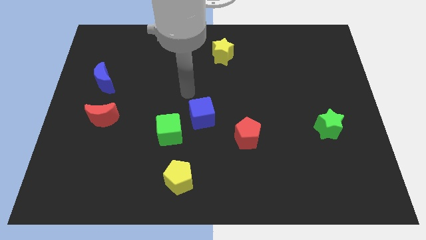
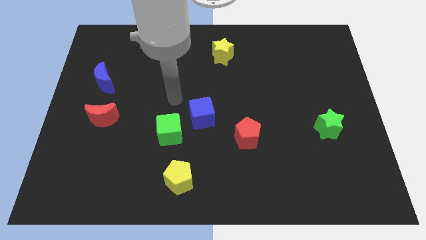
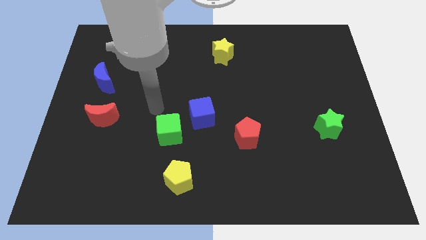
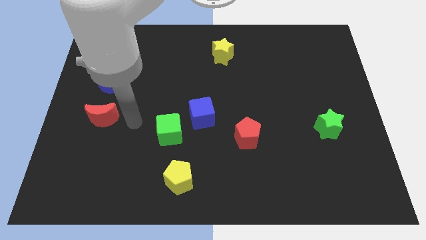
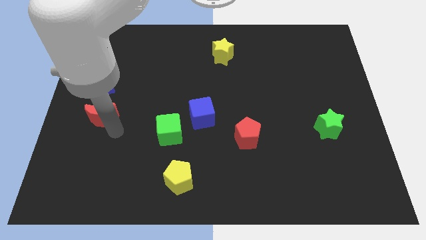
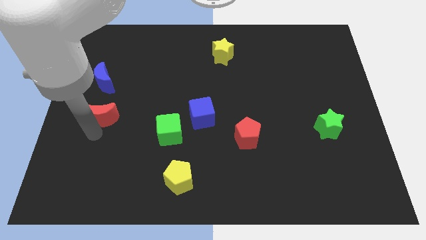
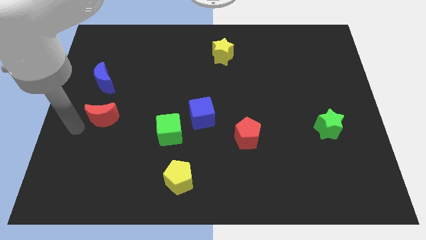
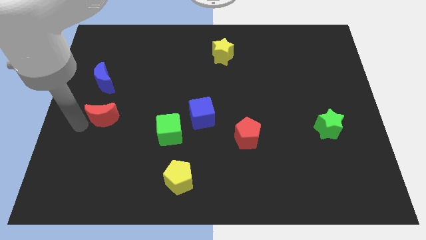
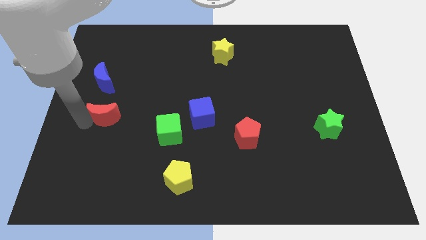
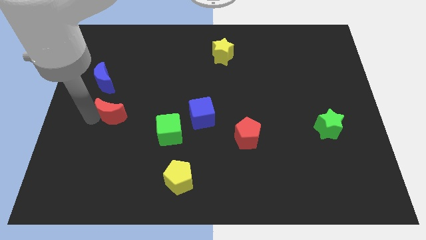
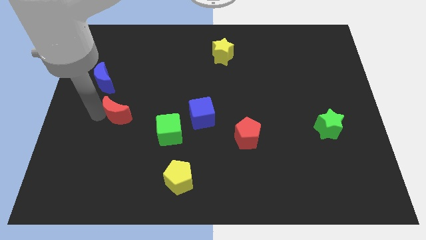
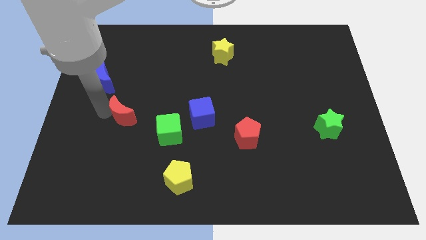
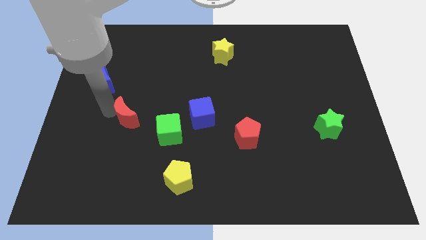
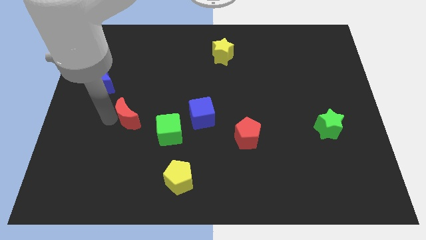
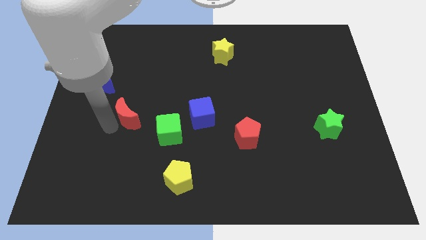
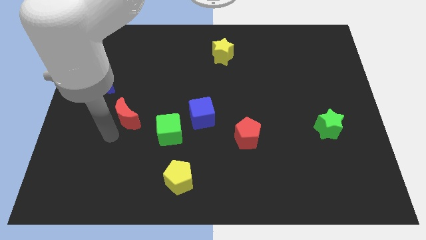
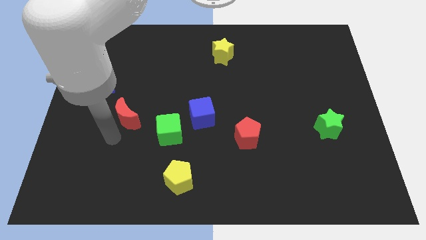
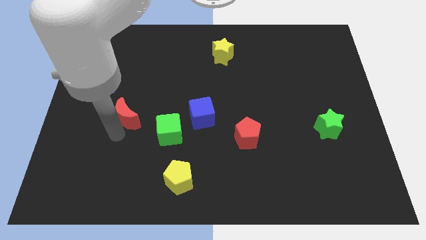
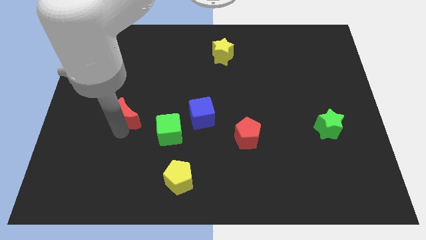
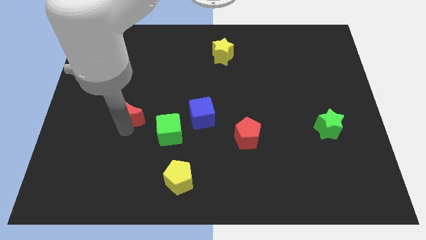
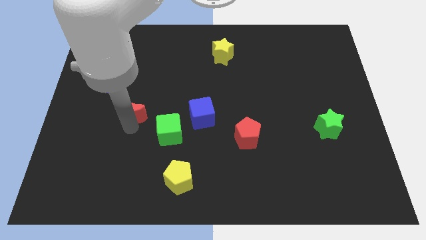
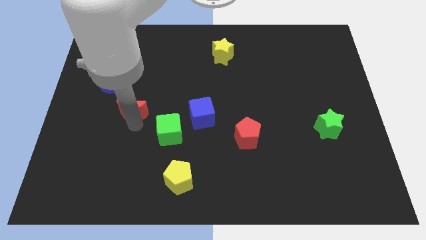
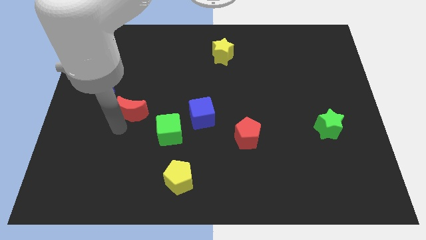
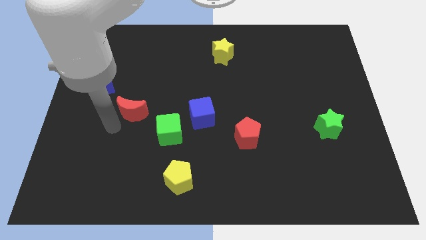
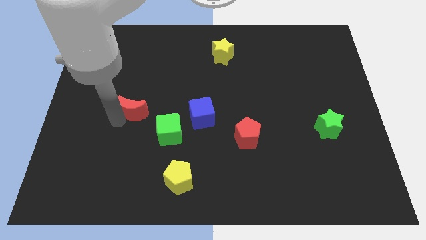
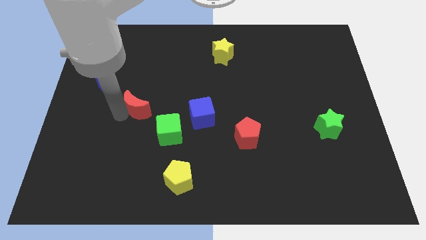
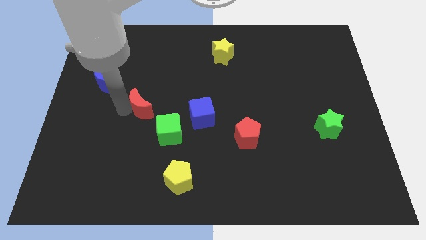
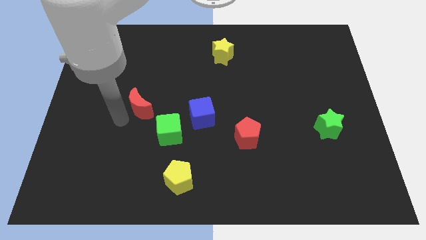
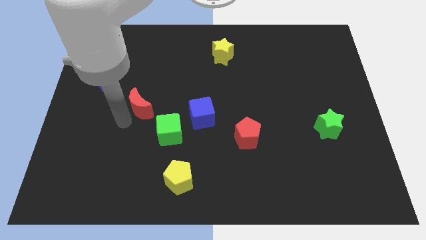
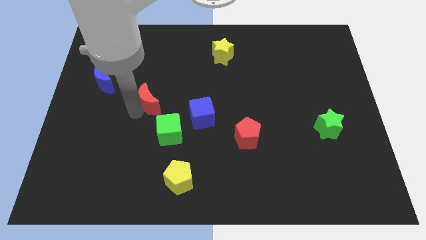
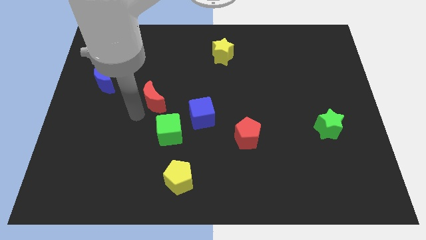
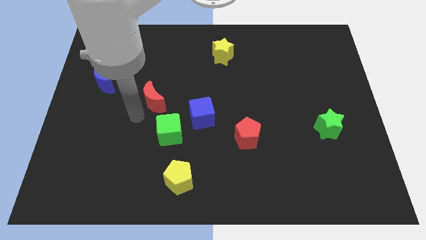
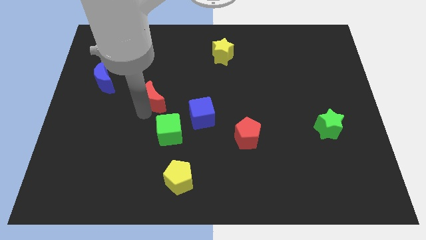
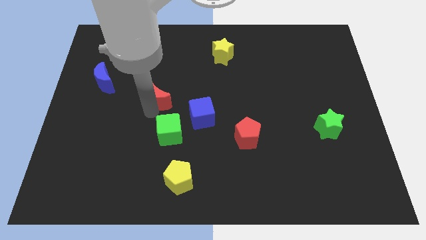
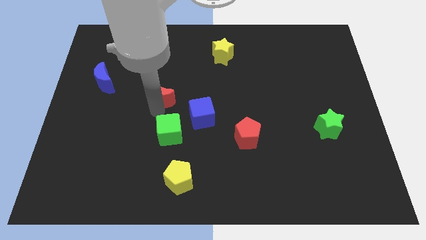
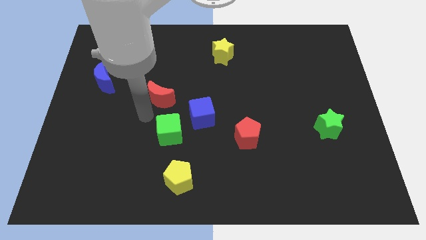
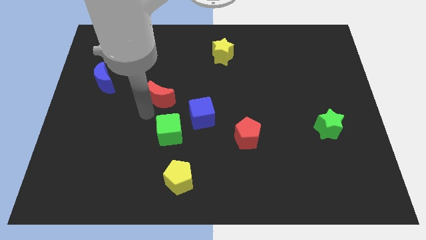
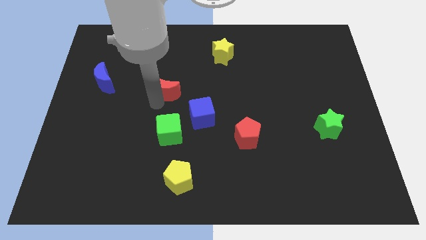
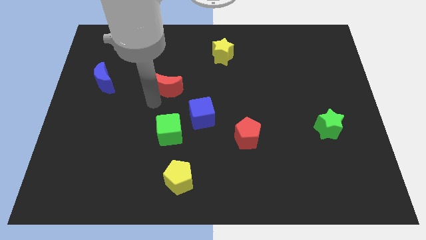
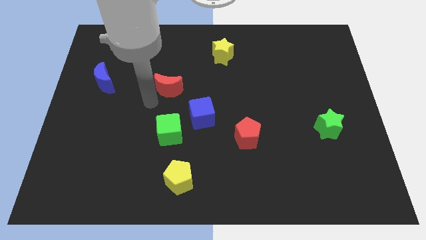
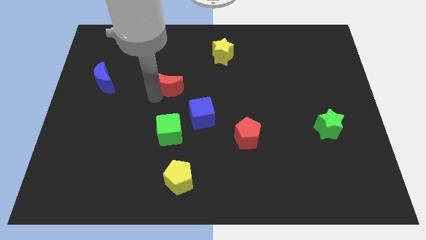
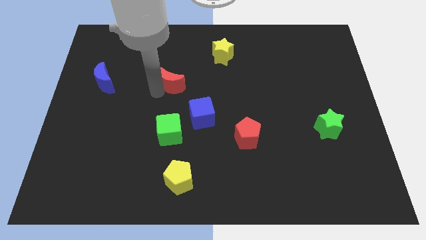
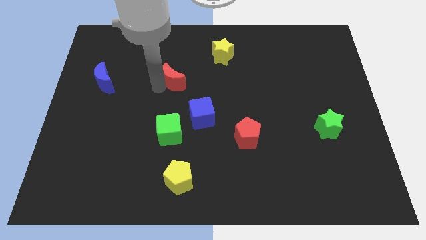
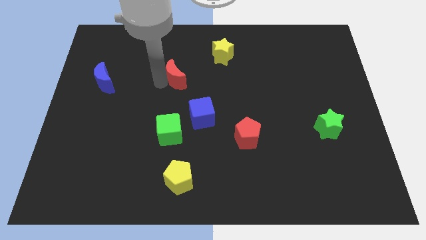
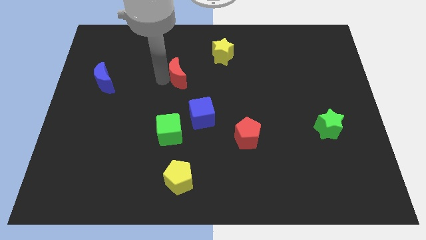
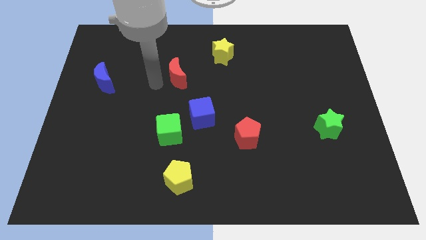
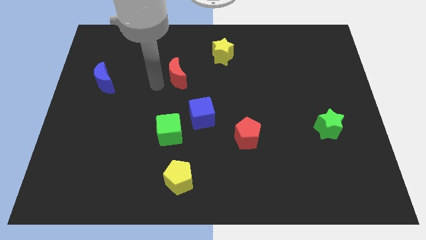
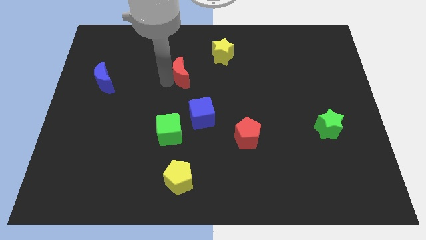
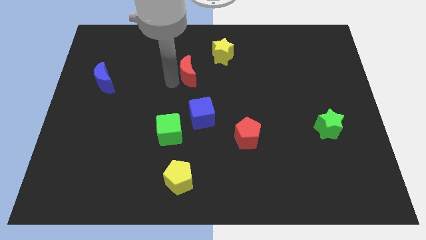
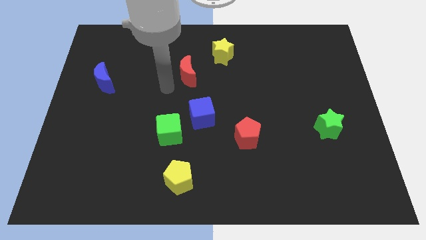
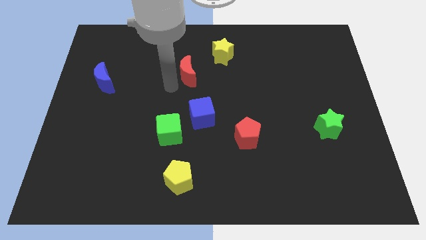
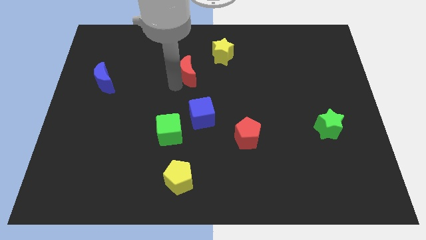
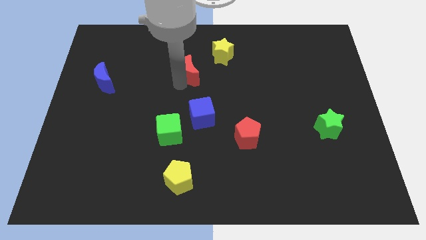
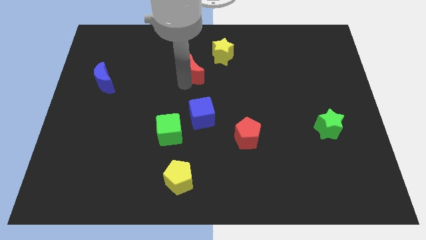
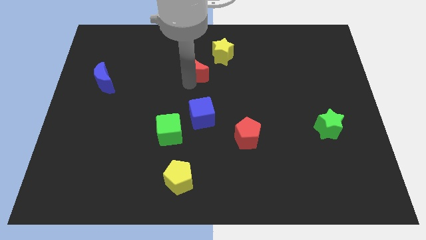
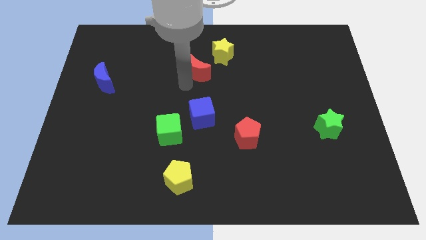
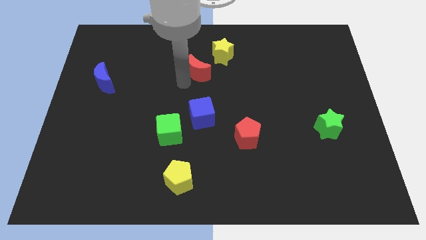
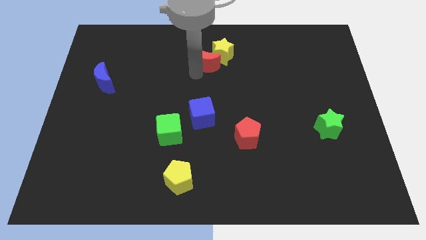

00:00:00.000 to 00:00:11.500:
slide the red moon close to the yellow star

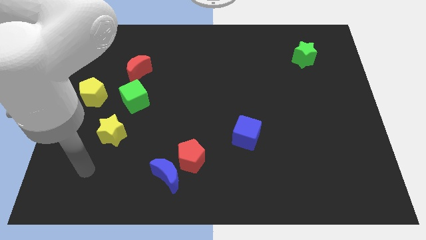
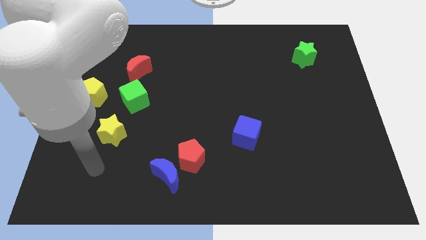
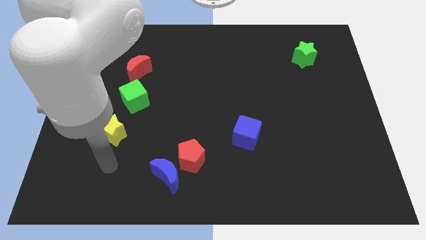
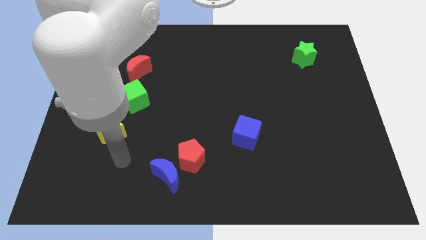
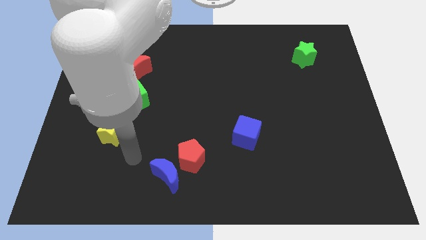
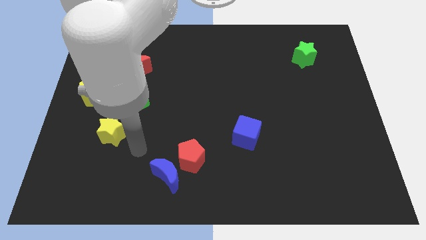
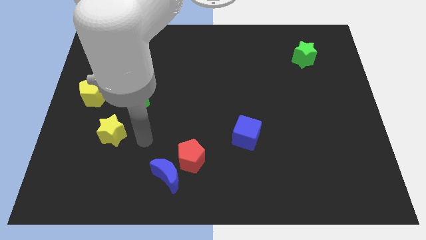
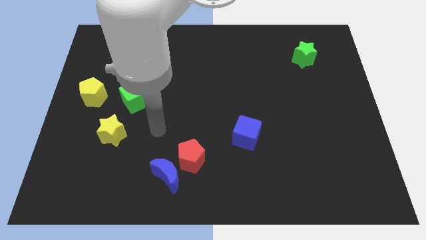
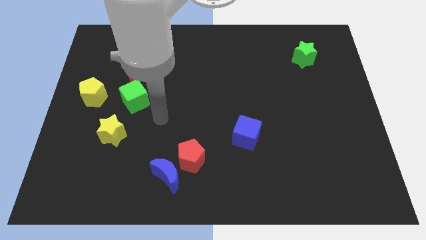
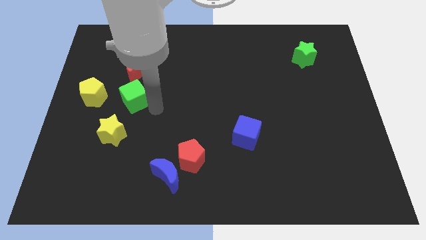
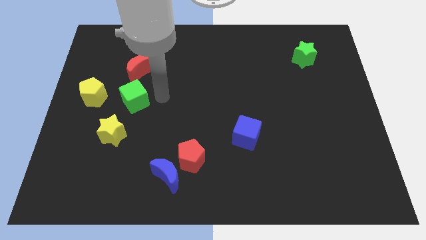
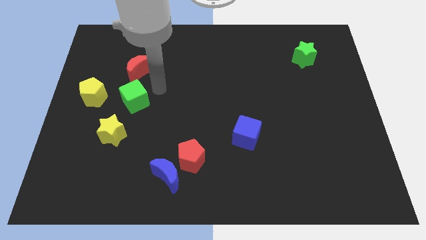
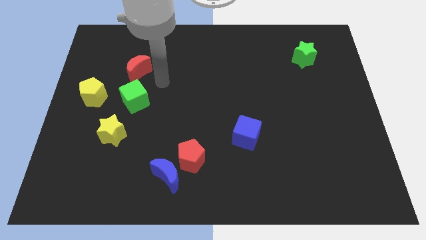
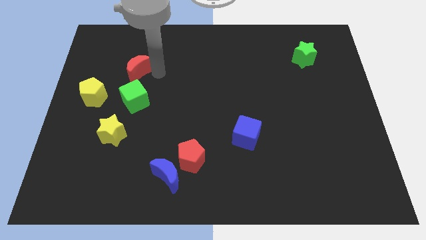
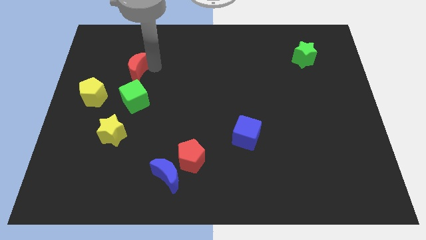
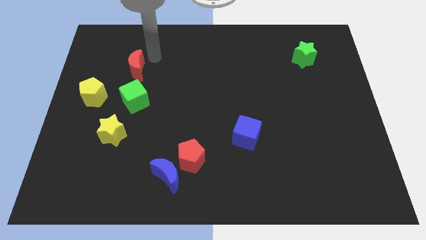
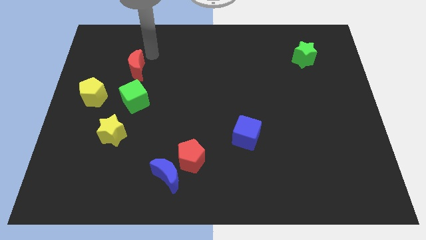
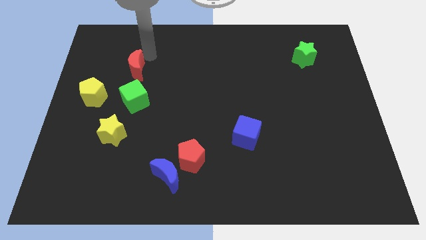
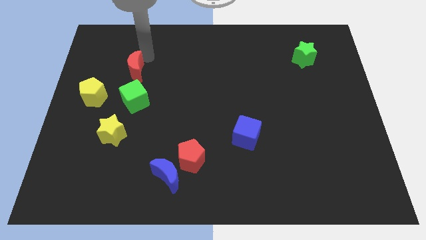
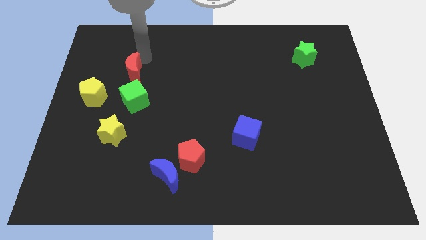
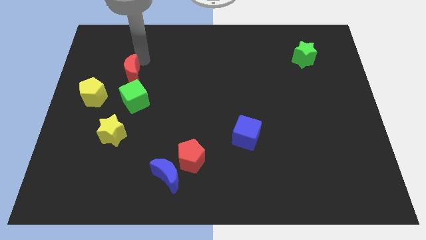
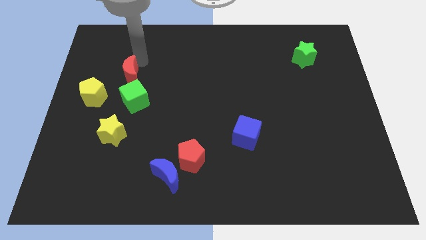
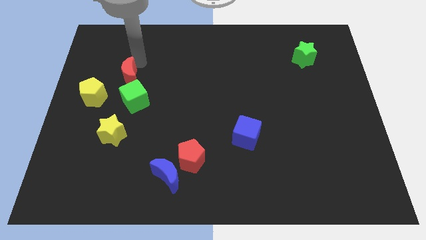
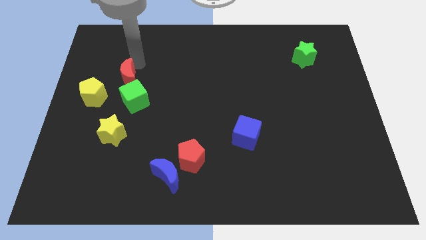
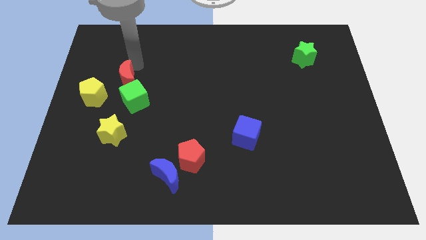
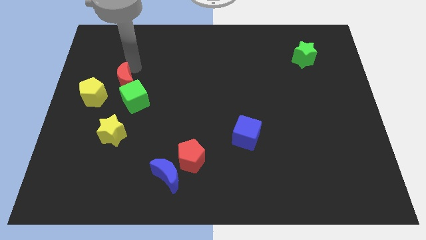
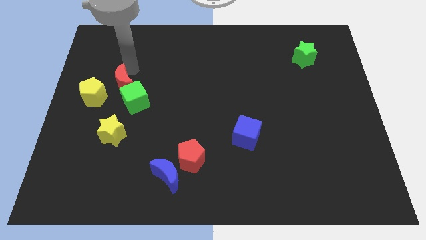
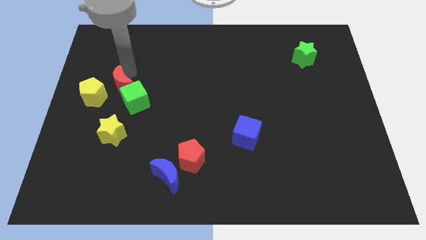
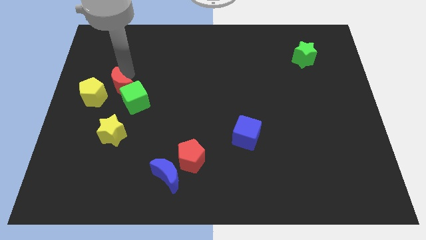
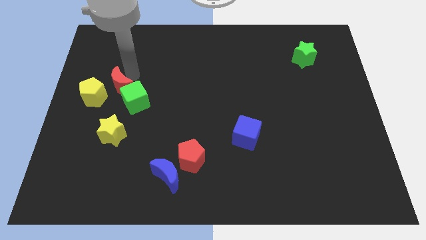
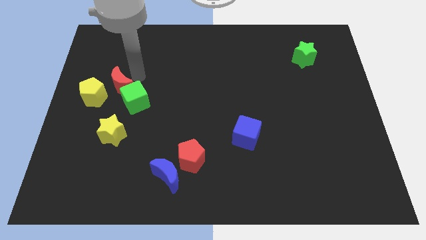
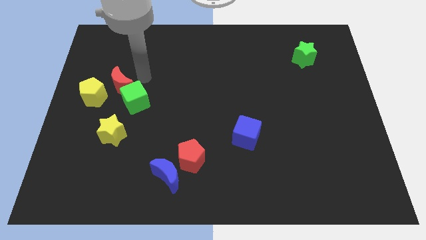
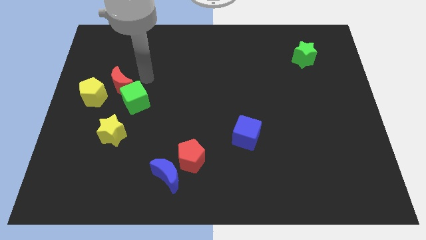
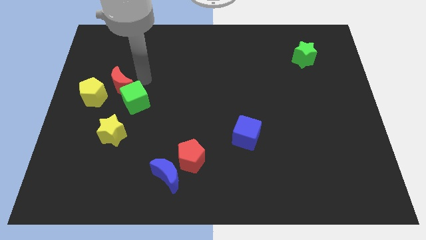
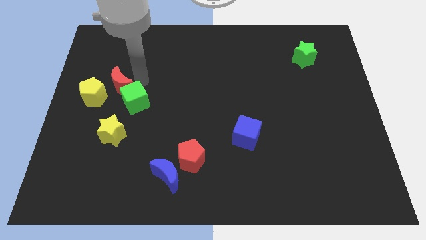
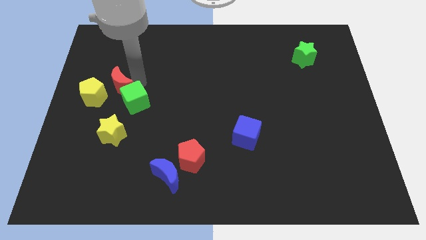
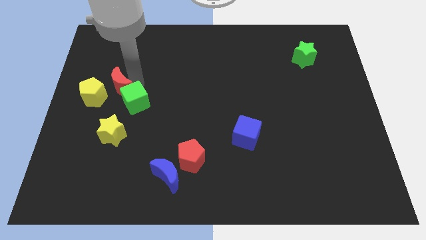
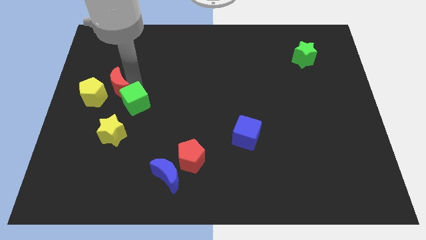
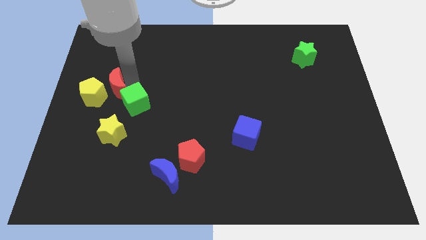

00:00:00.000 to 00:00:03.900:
move the red moon towards the yellow pentagon
